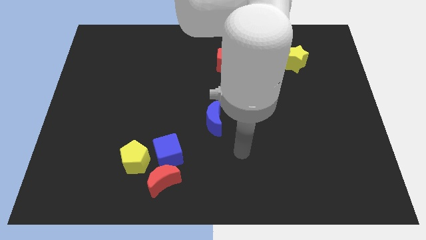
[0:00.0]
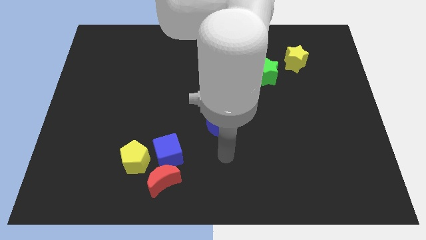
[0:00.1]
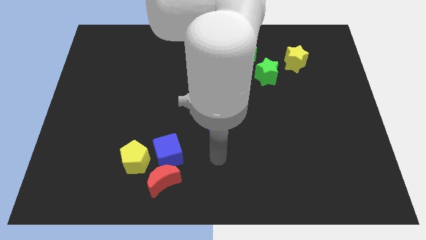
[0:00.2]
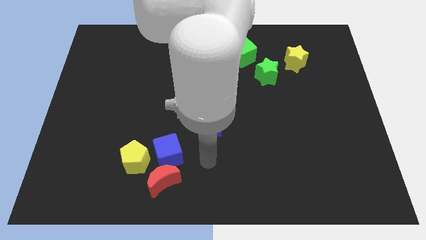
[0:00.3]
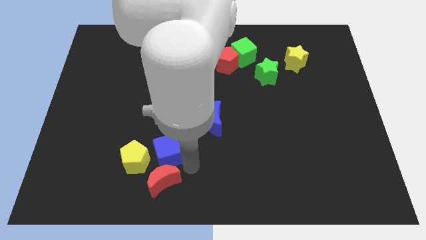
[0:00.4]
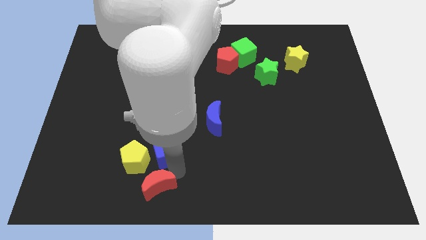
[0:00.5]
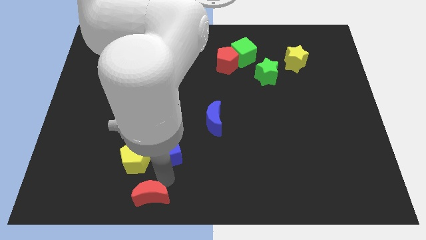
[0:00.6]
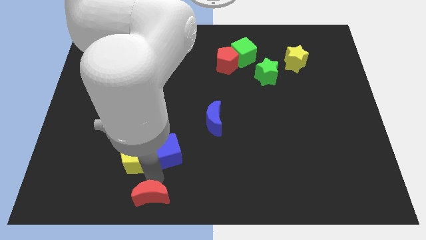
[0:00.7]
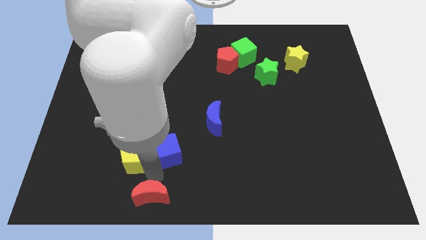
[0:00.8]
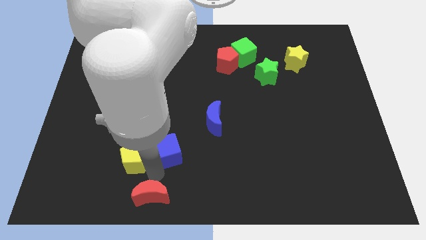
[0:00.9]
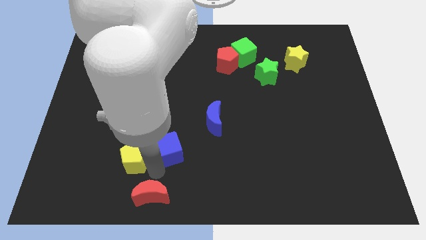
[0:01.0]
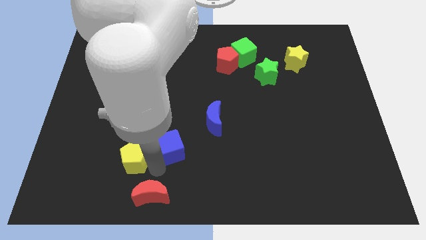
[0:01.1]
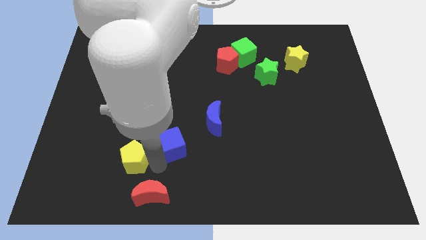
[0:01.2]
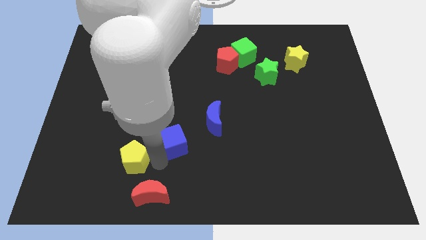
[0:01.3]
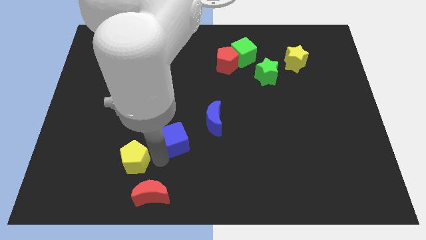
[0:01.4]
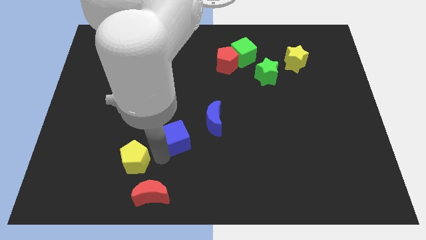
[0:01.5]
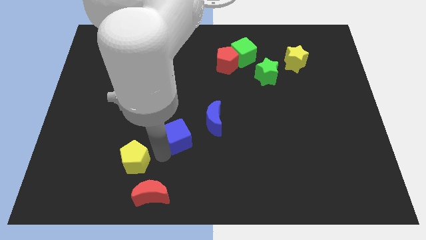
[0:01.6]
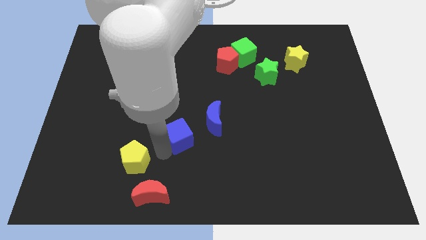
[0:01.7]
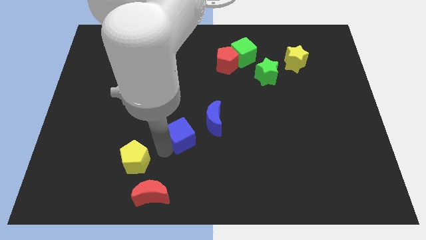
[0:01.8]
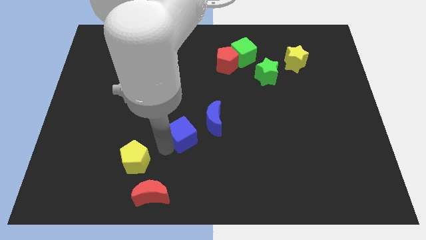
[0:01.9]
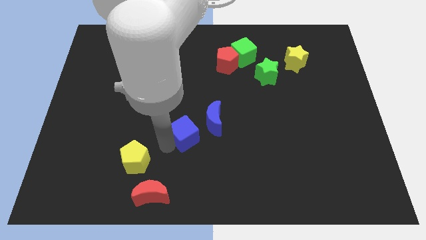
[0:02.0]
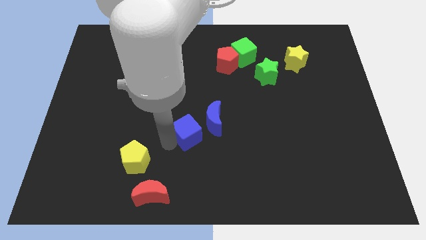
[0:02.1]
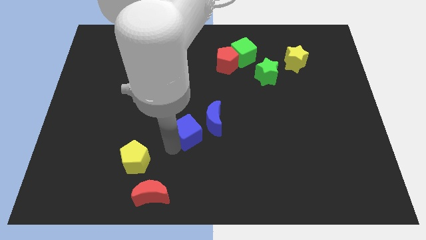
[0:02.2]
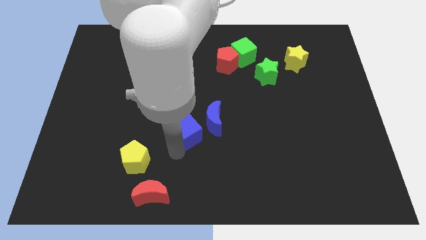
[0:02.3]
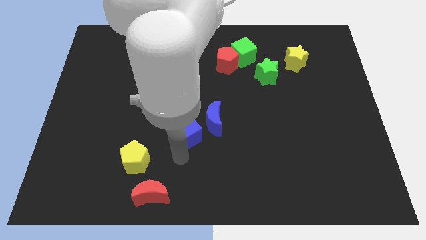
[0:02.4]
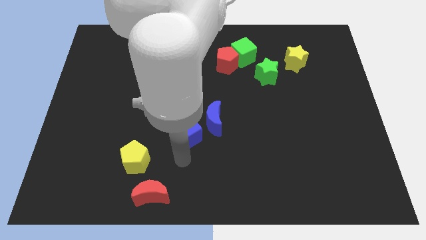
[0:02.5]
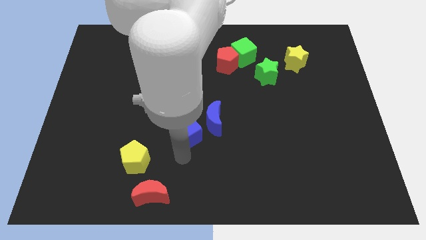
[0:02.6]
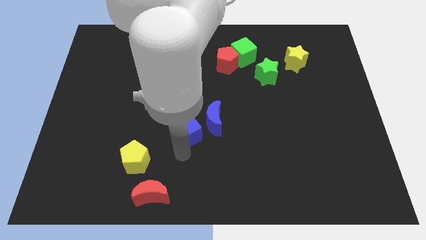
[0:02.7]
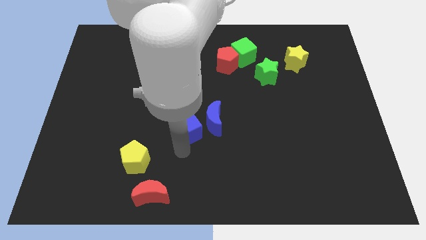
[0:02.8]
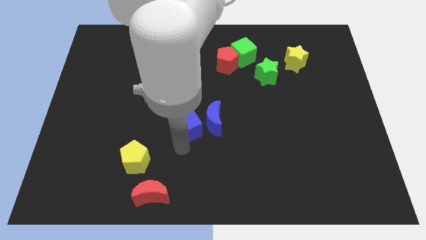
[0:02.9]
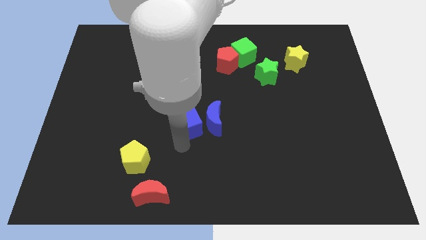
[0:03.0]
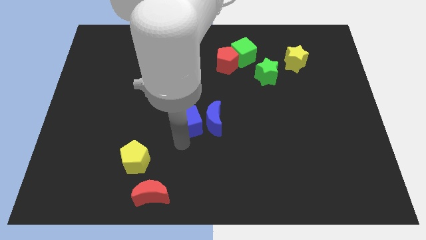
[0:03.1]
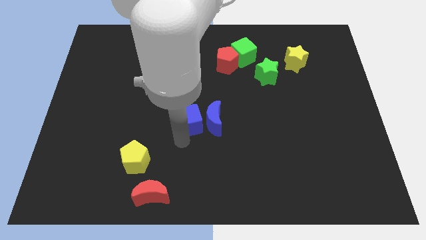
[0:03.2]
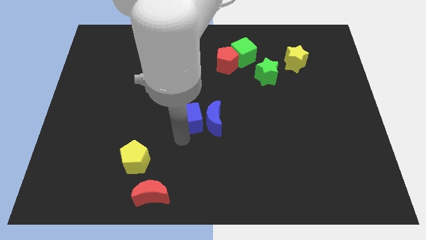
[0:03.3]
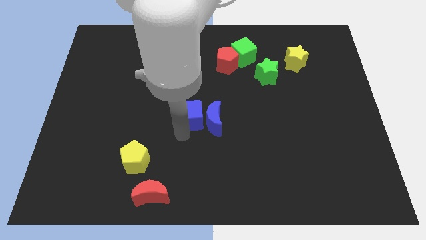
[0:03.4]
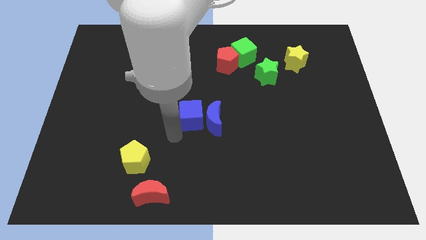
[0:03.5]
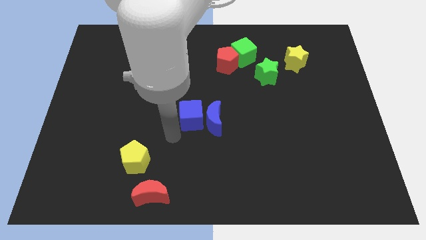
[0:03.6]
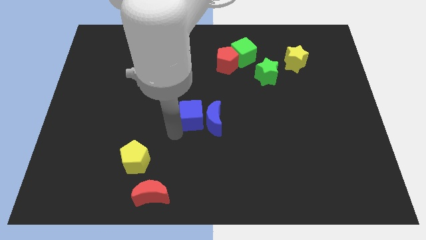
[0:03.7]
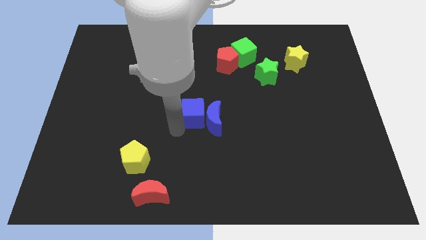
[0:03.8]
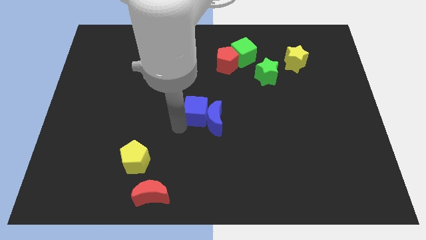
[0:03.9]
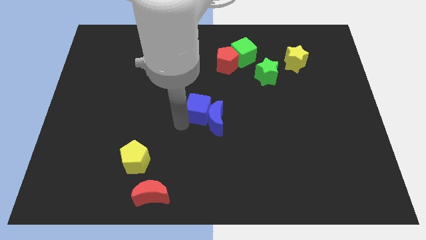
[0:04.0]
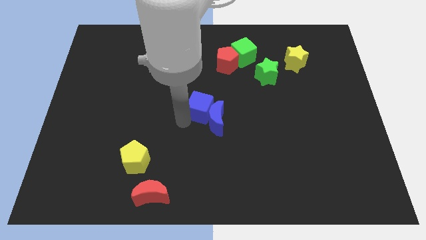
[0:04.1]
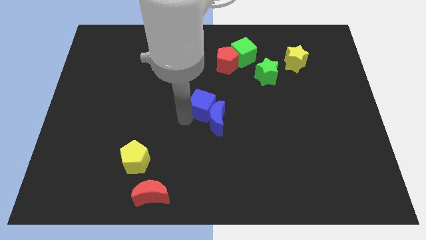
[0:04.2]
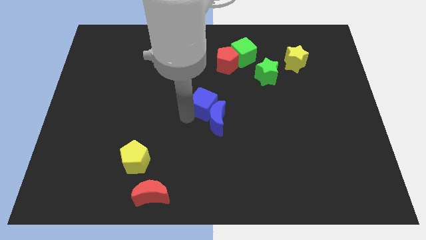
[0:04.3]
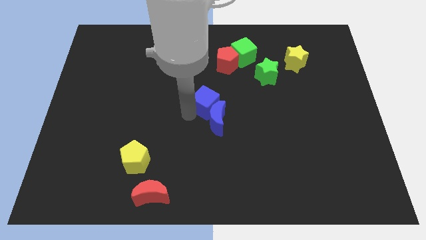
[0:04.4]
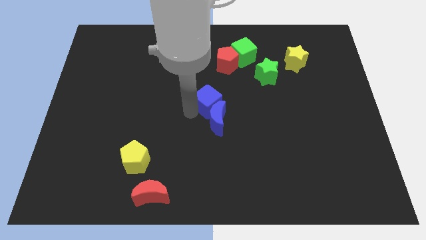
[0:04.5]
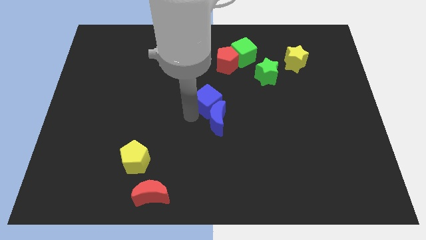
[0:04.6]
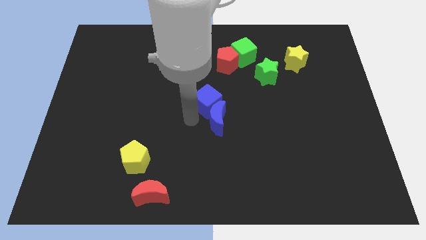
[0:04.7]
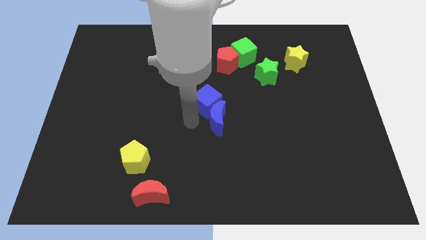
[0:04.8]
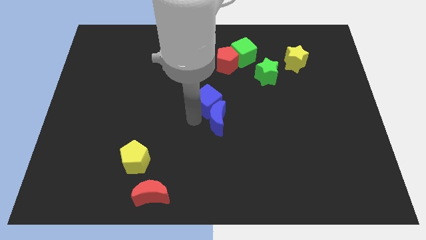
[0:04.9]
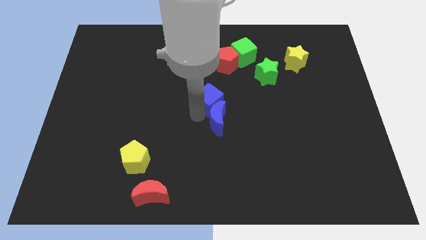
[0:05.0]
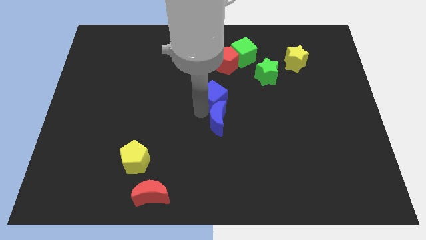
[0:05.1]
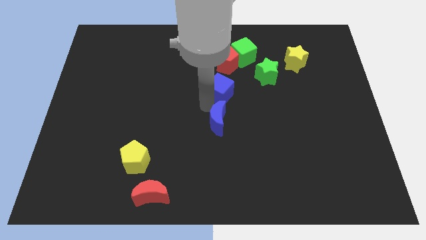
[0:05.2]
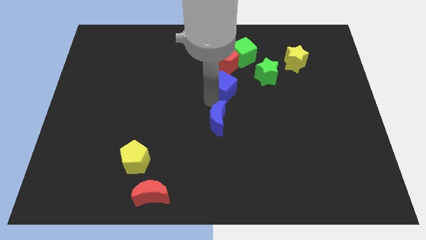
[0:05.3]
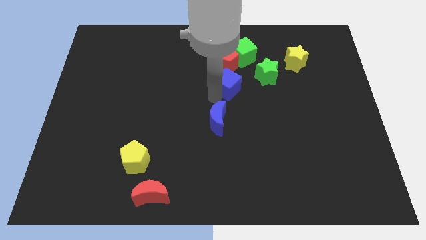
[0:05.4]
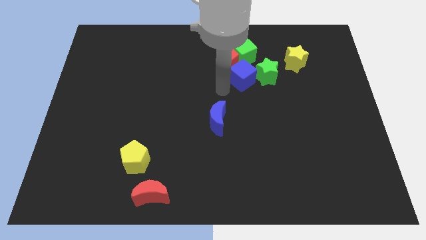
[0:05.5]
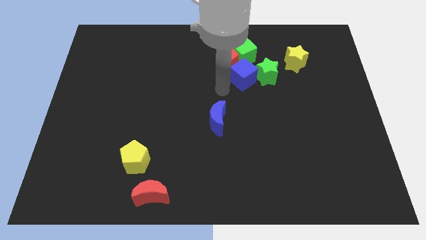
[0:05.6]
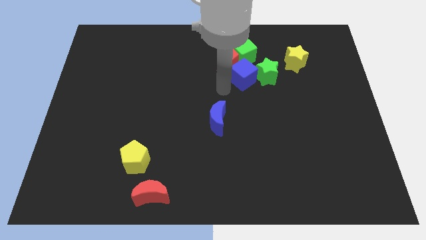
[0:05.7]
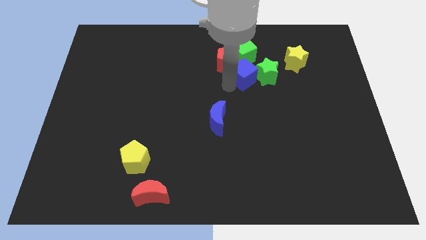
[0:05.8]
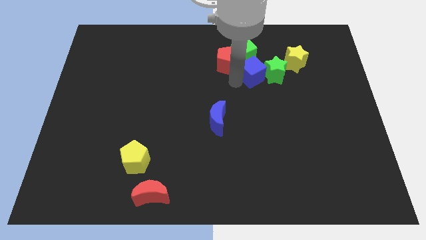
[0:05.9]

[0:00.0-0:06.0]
push the blue cube just right of the red pentagon
